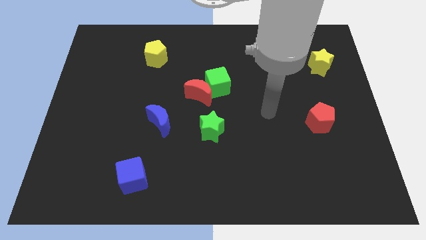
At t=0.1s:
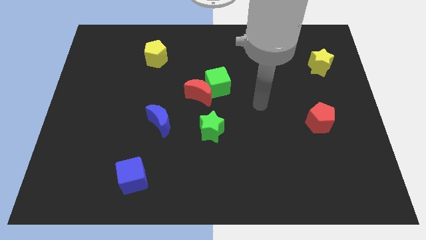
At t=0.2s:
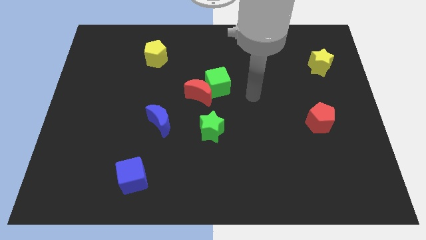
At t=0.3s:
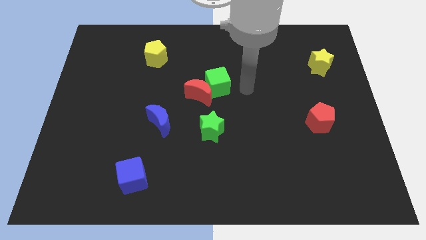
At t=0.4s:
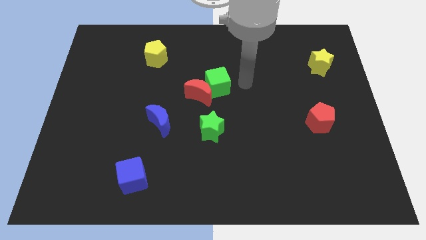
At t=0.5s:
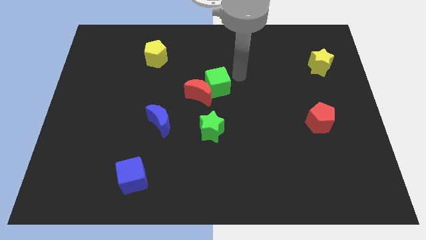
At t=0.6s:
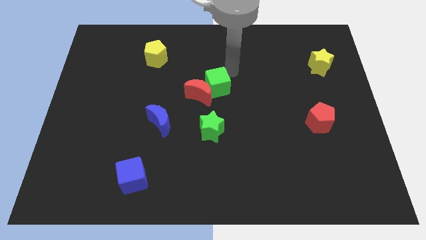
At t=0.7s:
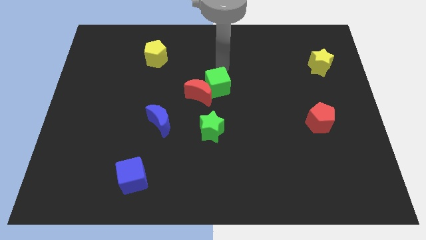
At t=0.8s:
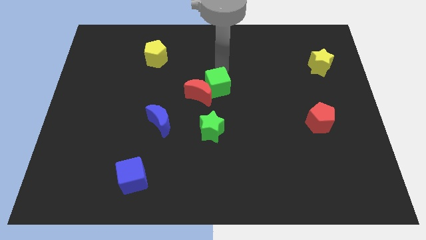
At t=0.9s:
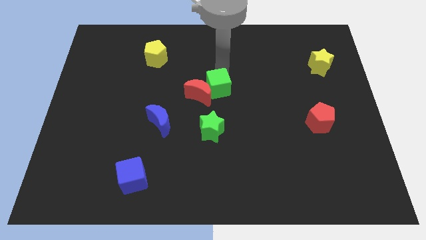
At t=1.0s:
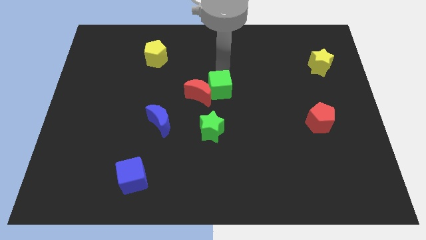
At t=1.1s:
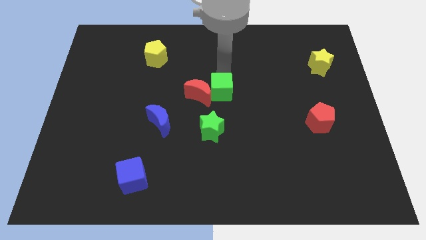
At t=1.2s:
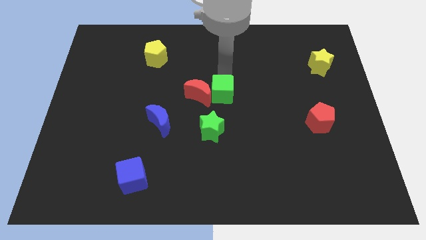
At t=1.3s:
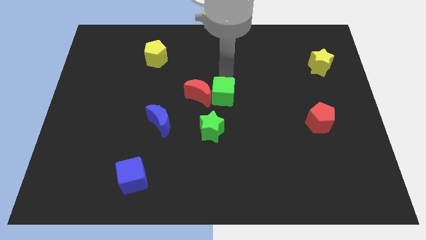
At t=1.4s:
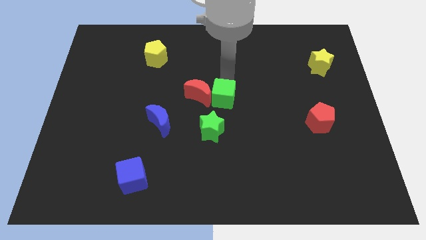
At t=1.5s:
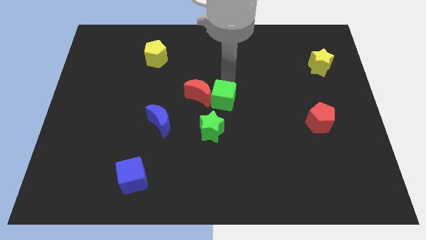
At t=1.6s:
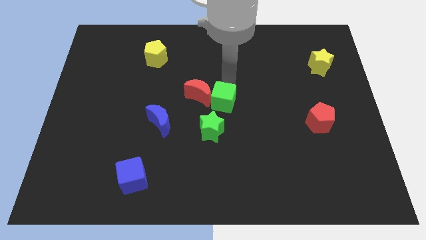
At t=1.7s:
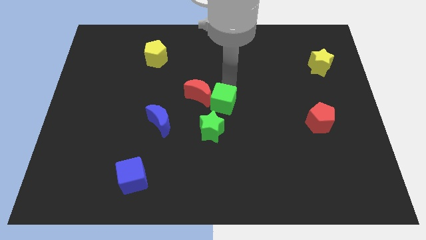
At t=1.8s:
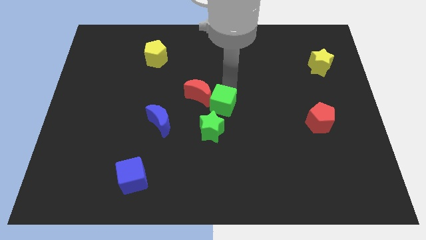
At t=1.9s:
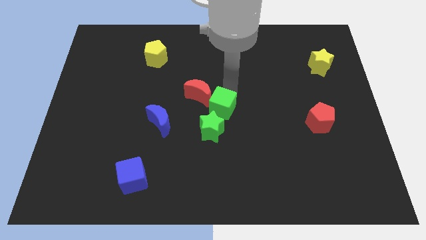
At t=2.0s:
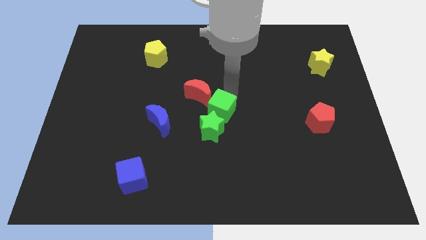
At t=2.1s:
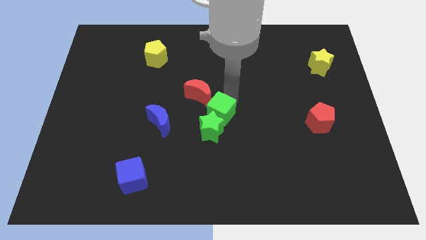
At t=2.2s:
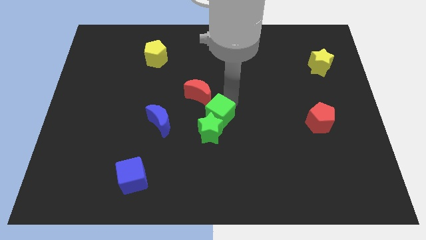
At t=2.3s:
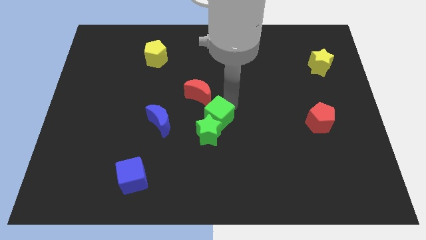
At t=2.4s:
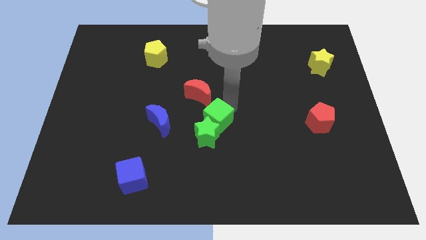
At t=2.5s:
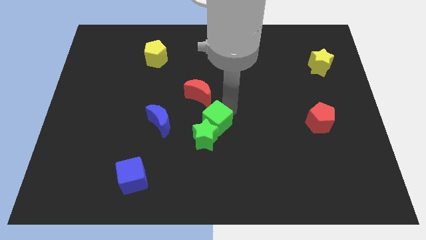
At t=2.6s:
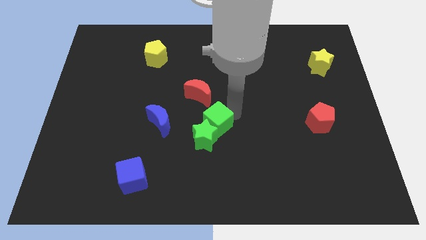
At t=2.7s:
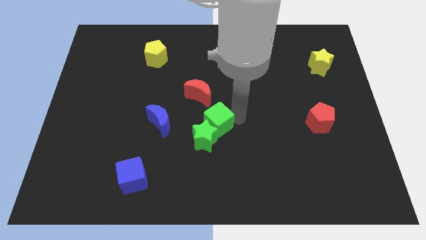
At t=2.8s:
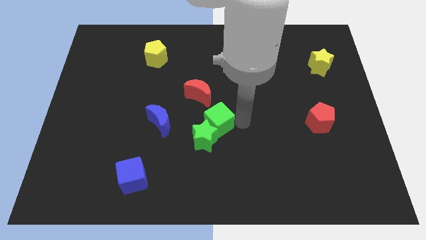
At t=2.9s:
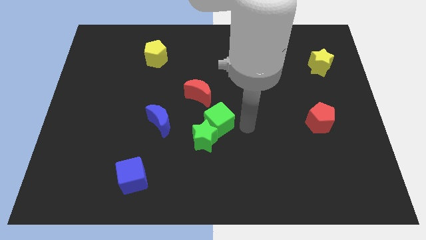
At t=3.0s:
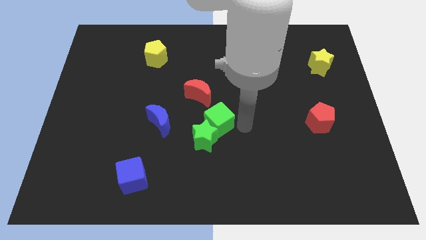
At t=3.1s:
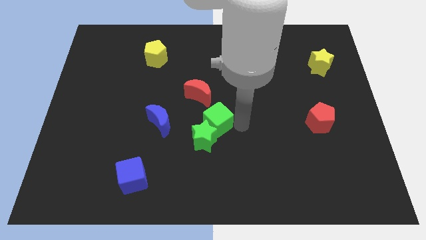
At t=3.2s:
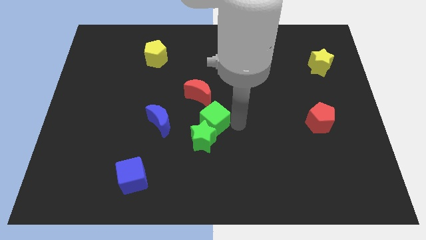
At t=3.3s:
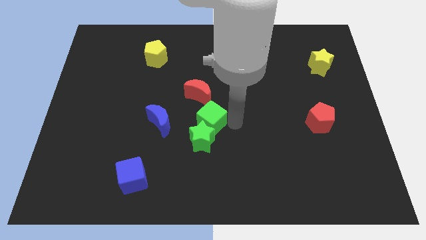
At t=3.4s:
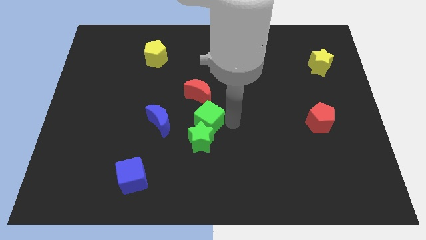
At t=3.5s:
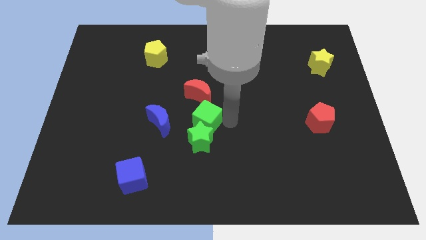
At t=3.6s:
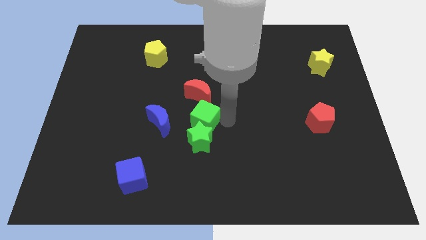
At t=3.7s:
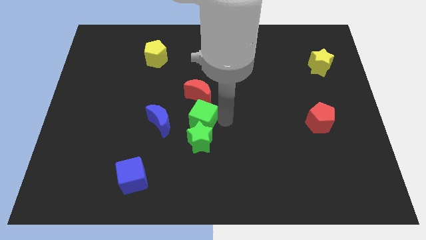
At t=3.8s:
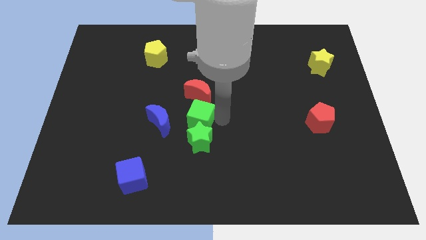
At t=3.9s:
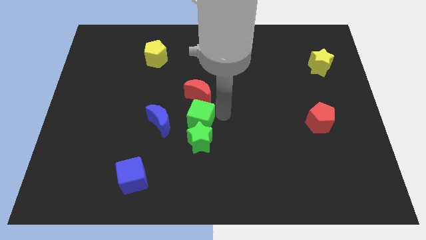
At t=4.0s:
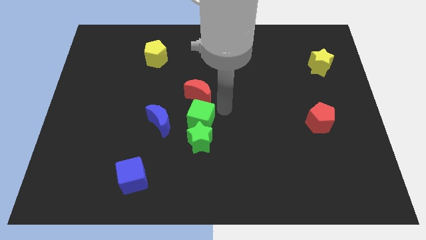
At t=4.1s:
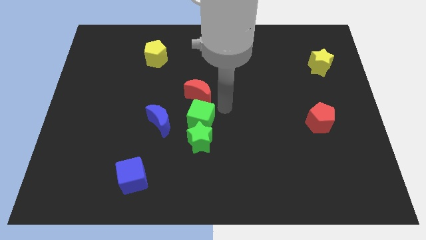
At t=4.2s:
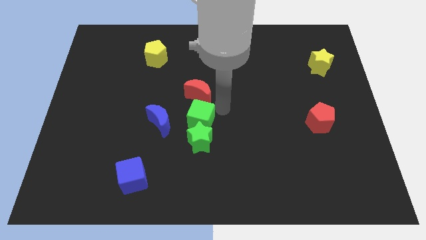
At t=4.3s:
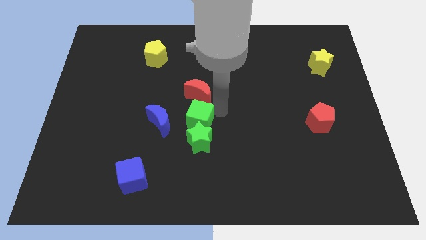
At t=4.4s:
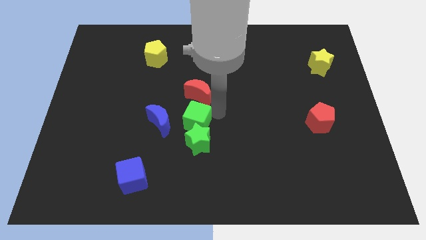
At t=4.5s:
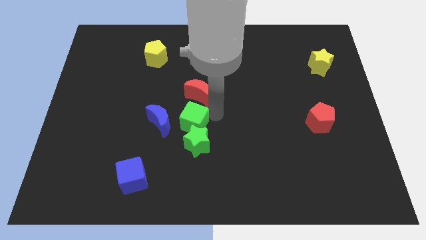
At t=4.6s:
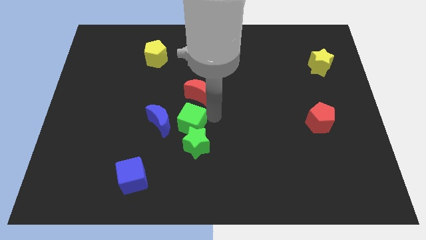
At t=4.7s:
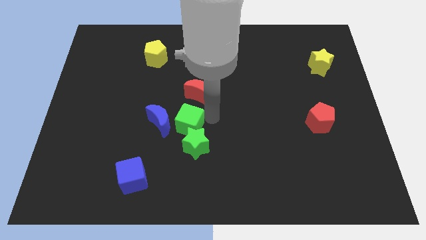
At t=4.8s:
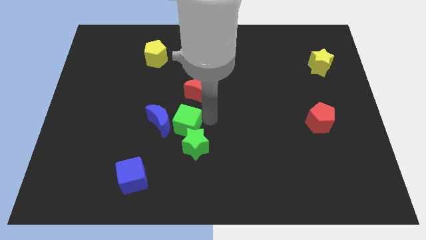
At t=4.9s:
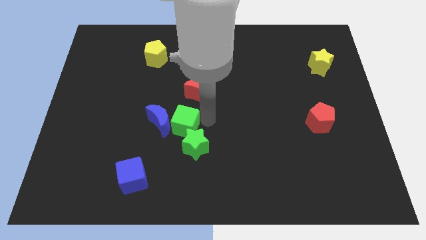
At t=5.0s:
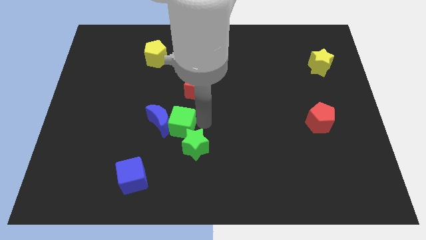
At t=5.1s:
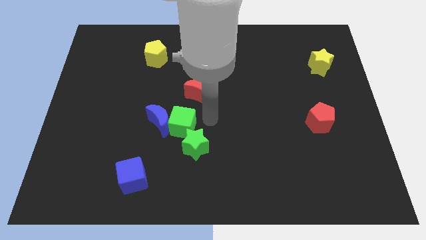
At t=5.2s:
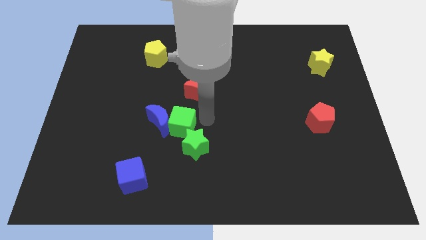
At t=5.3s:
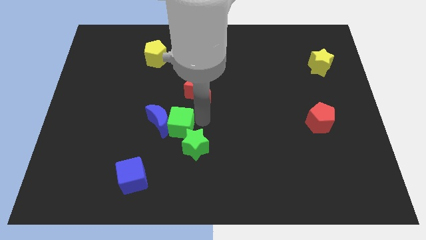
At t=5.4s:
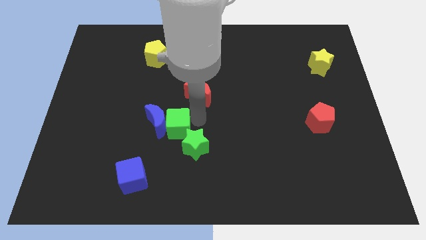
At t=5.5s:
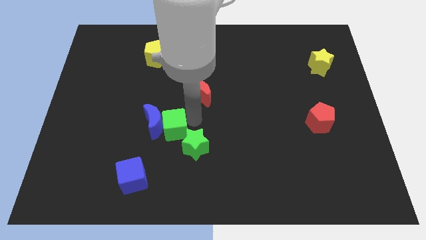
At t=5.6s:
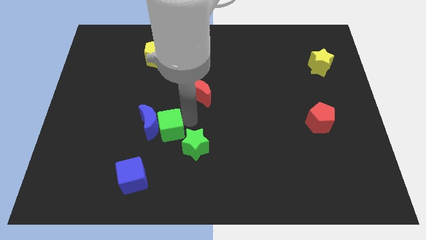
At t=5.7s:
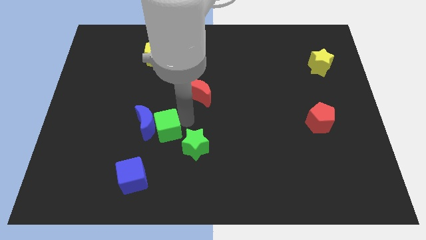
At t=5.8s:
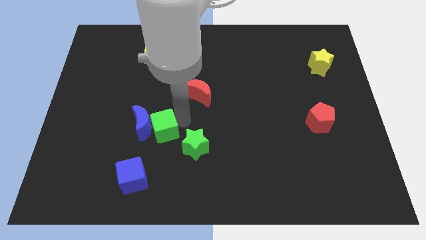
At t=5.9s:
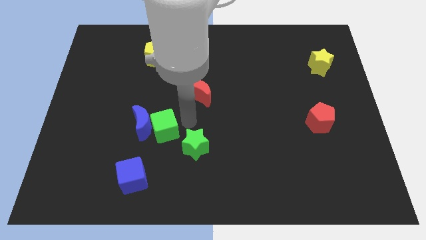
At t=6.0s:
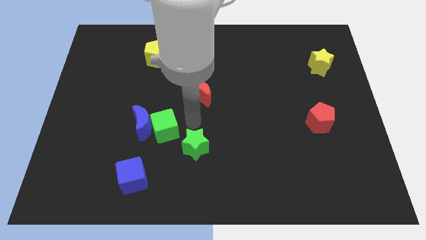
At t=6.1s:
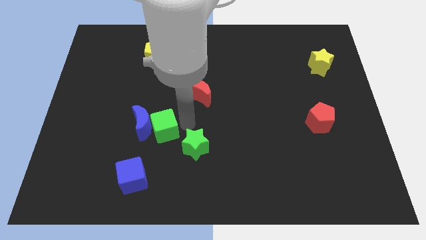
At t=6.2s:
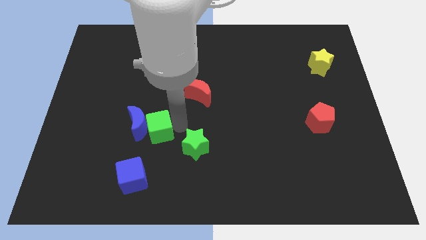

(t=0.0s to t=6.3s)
move the green cube to the top side of the blue cube

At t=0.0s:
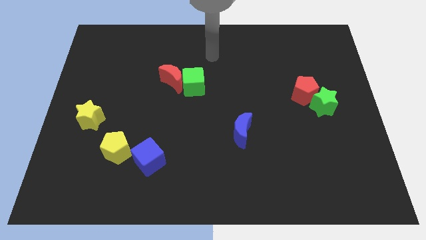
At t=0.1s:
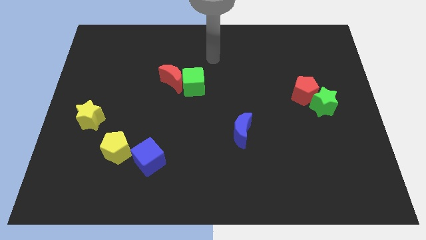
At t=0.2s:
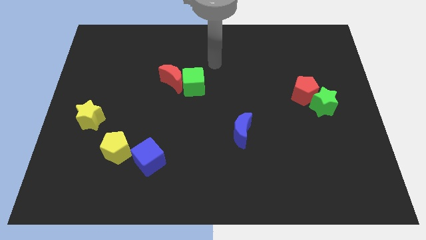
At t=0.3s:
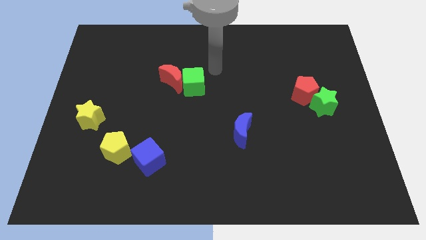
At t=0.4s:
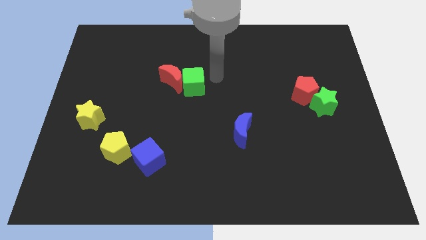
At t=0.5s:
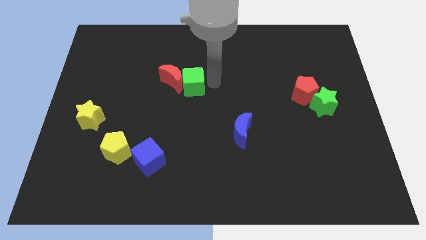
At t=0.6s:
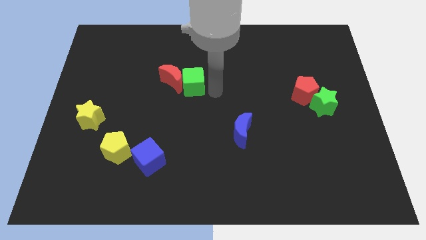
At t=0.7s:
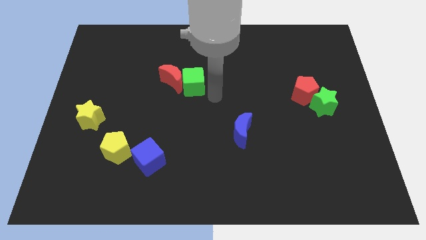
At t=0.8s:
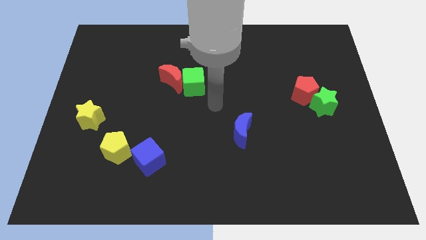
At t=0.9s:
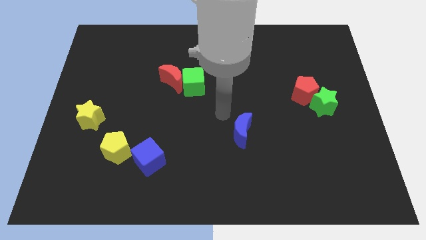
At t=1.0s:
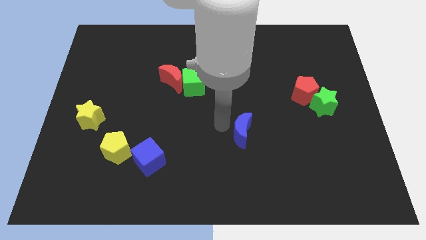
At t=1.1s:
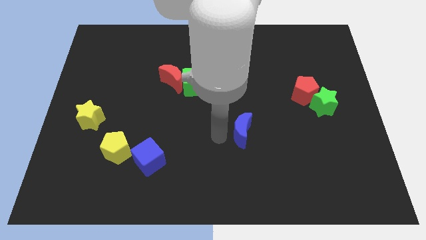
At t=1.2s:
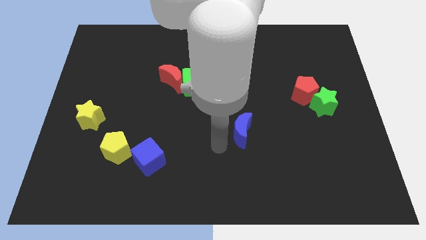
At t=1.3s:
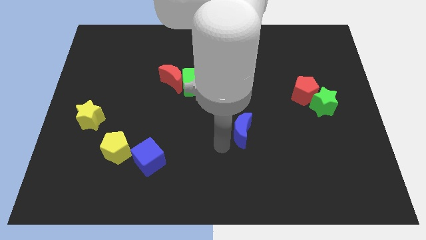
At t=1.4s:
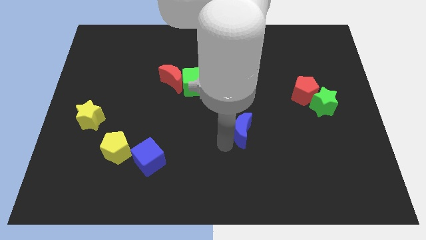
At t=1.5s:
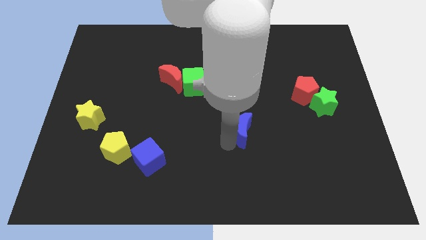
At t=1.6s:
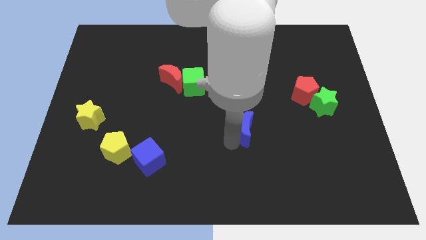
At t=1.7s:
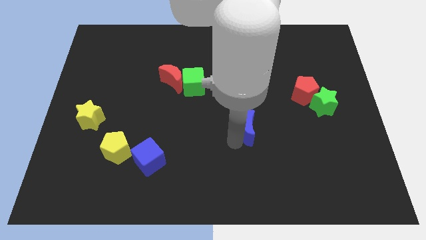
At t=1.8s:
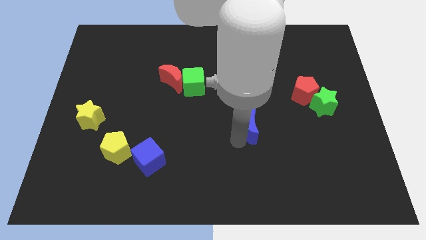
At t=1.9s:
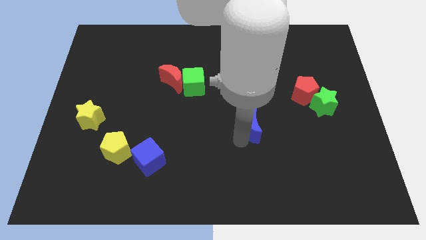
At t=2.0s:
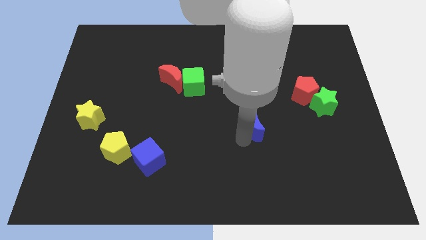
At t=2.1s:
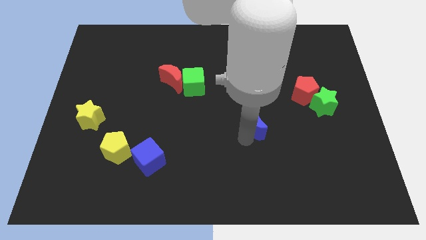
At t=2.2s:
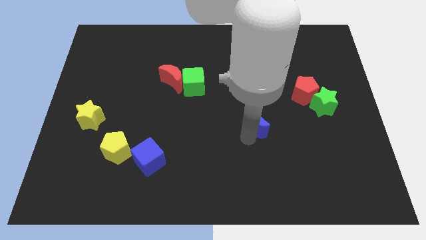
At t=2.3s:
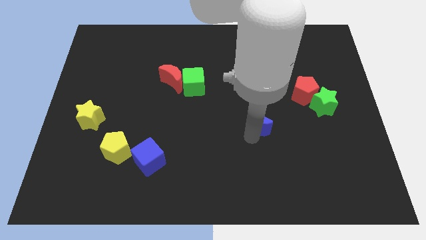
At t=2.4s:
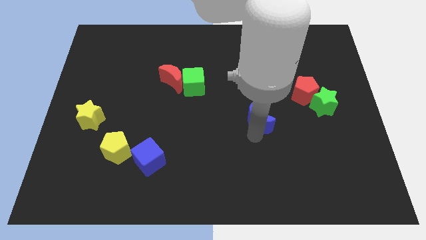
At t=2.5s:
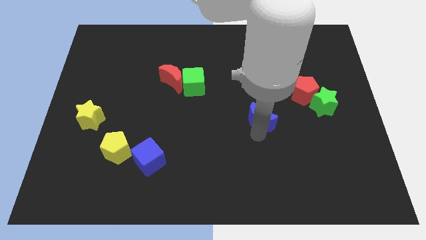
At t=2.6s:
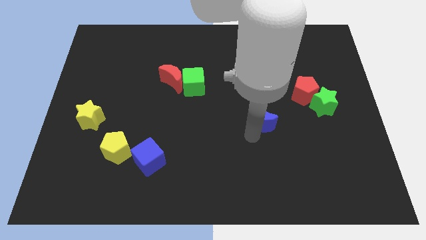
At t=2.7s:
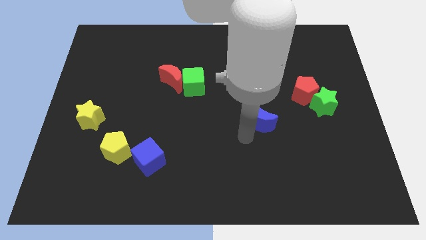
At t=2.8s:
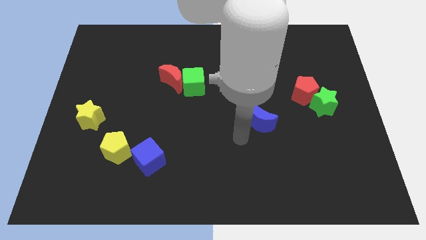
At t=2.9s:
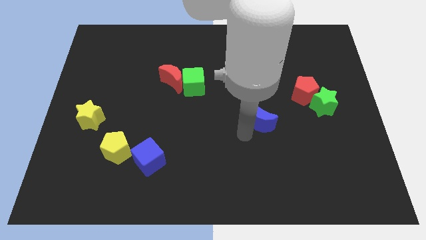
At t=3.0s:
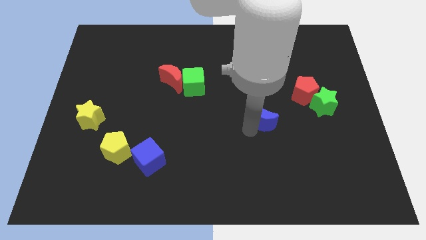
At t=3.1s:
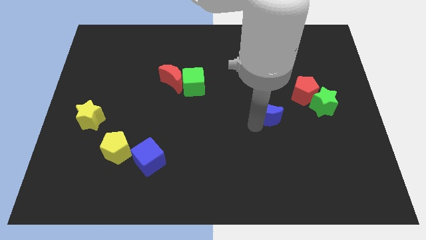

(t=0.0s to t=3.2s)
push the blue moon to the left of the green star
